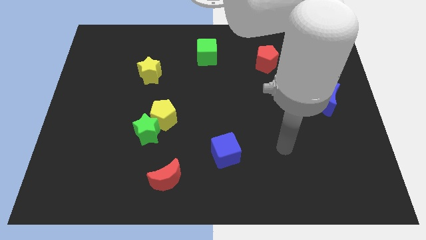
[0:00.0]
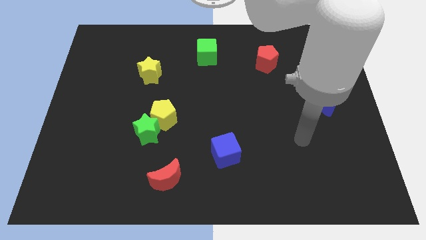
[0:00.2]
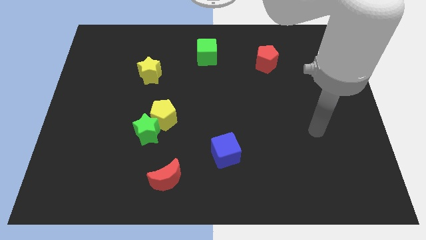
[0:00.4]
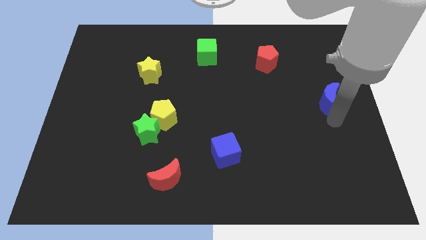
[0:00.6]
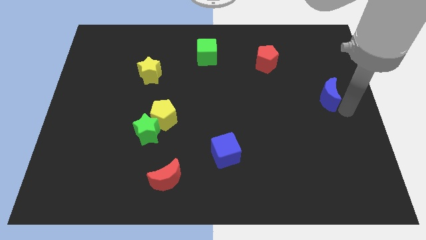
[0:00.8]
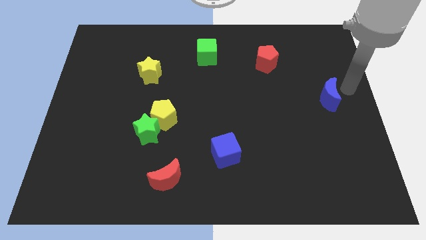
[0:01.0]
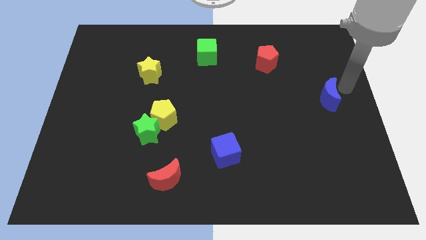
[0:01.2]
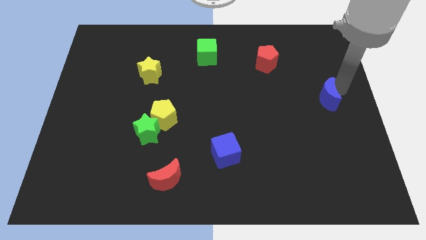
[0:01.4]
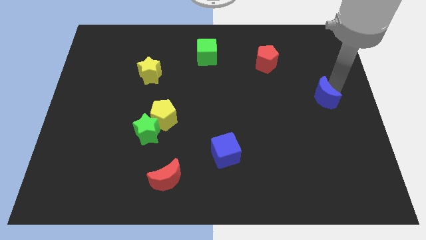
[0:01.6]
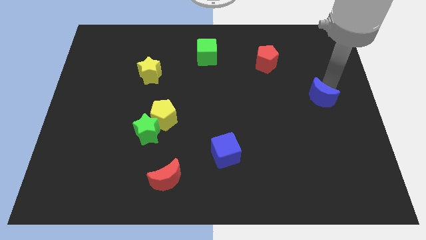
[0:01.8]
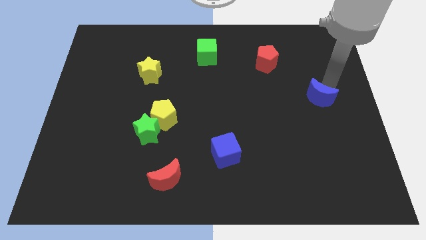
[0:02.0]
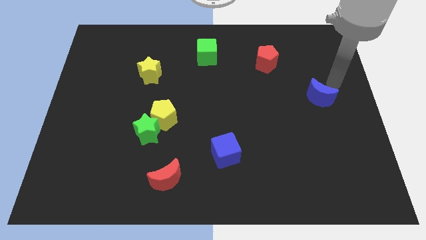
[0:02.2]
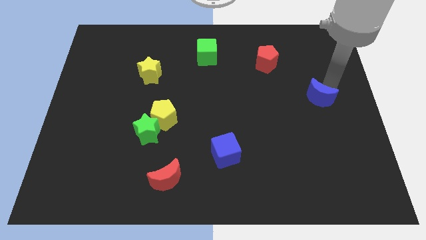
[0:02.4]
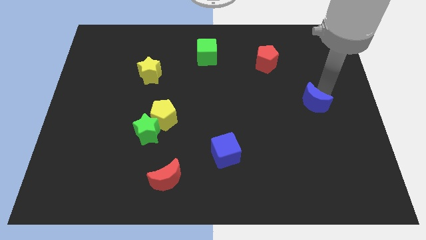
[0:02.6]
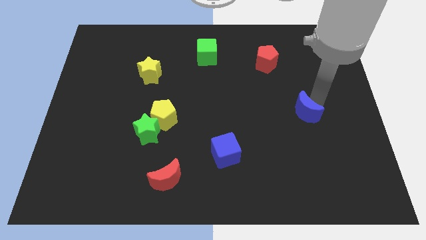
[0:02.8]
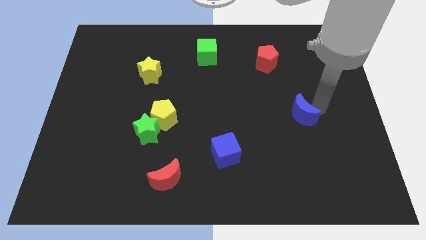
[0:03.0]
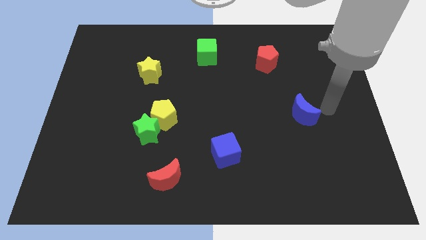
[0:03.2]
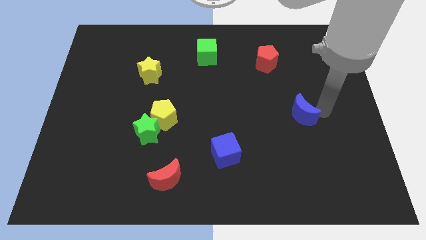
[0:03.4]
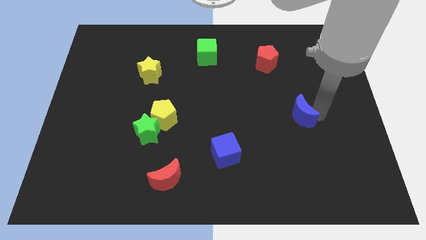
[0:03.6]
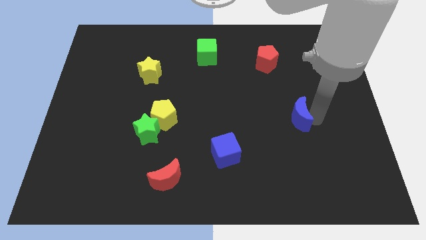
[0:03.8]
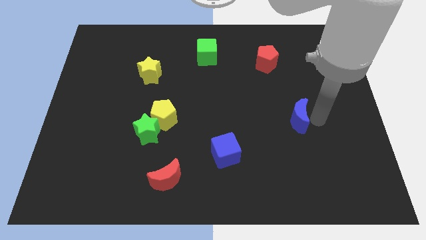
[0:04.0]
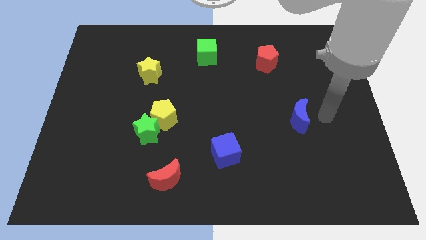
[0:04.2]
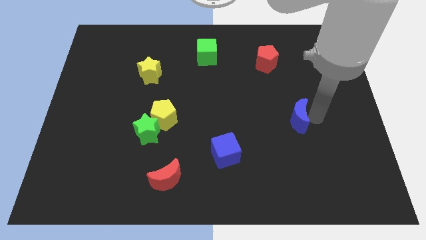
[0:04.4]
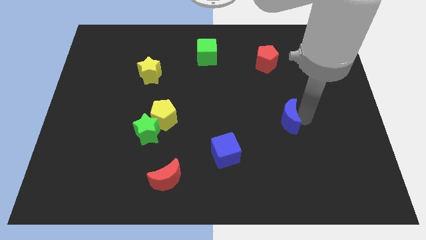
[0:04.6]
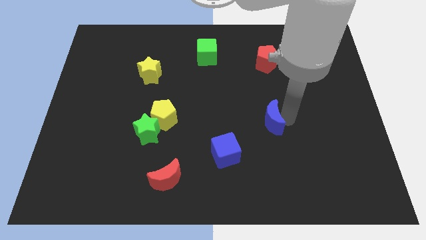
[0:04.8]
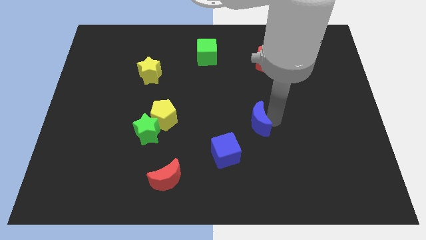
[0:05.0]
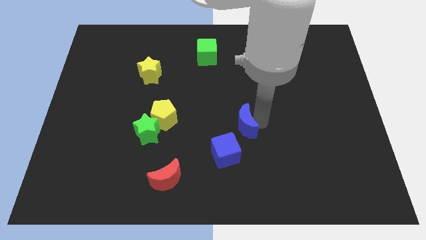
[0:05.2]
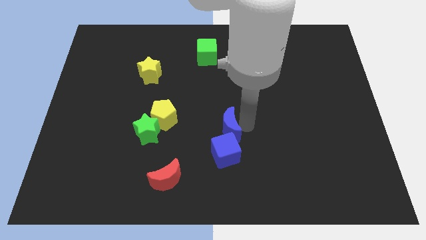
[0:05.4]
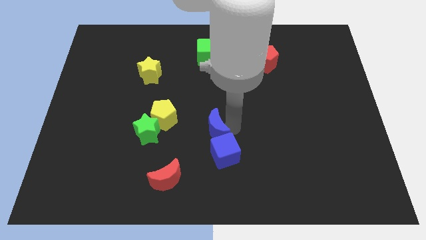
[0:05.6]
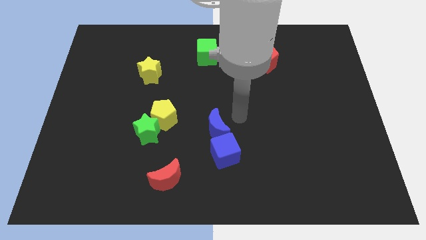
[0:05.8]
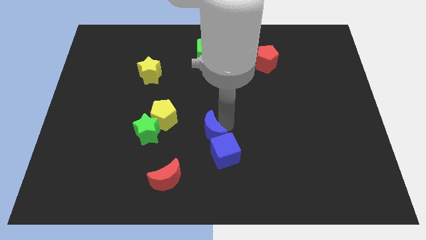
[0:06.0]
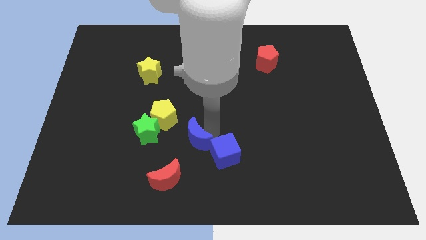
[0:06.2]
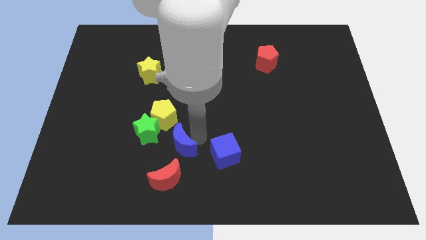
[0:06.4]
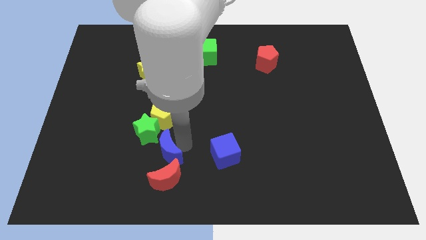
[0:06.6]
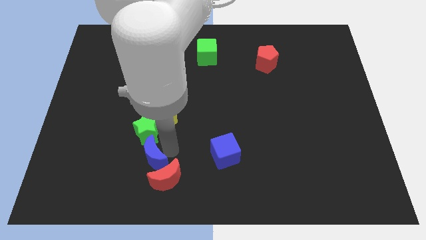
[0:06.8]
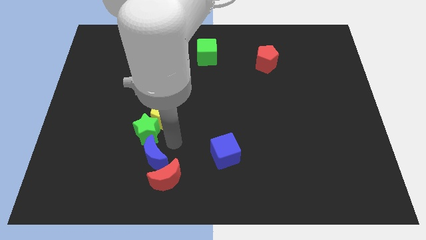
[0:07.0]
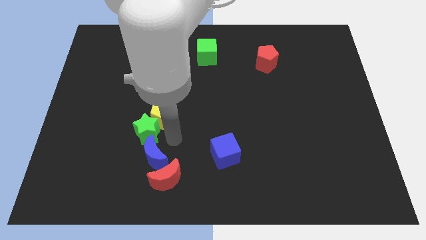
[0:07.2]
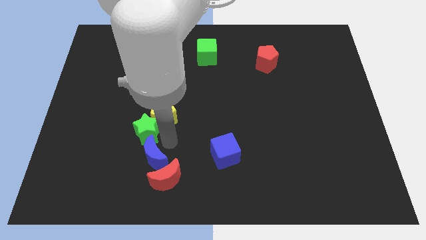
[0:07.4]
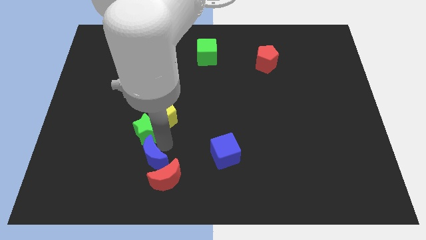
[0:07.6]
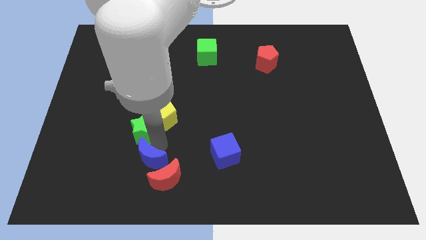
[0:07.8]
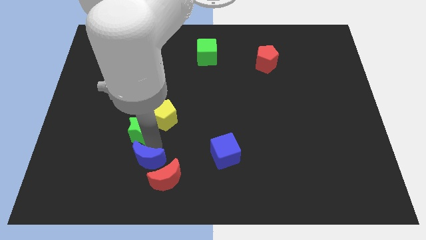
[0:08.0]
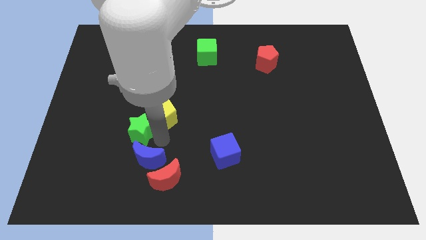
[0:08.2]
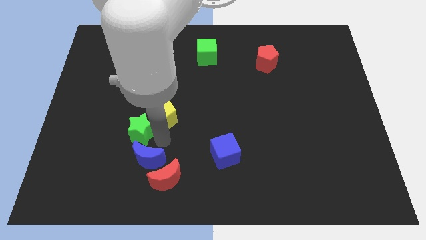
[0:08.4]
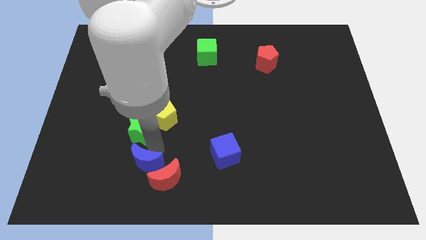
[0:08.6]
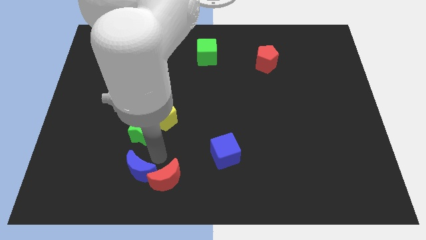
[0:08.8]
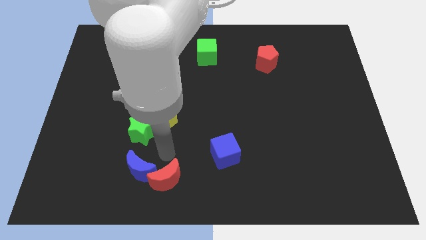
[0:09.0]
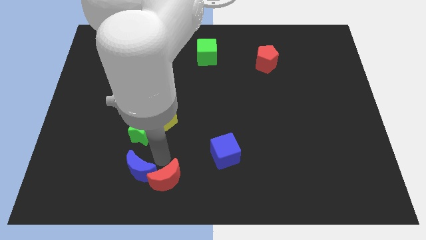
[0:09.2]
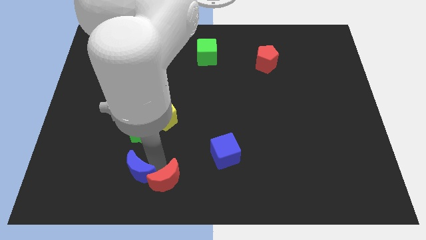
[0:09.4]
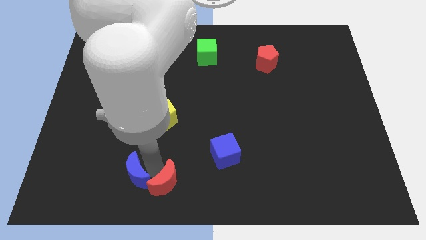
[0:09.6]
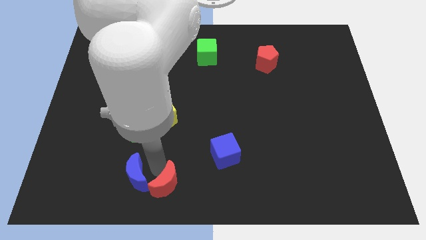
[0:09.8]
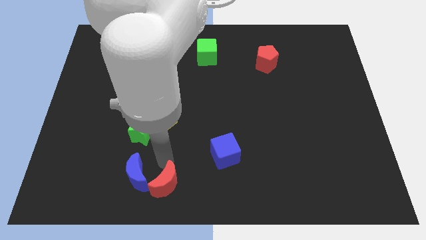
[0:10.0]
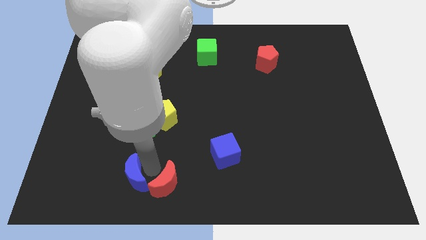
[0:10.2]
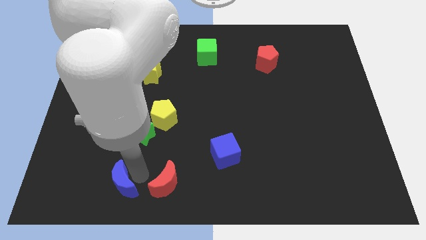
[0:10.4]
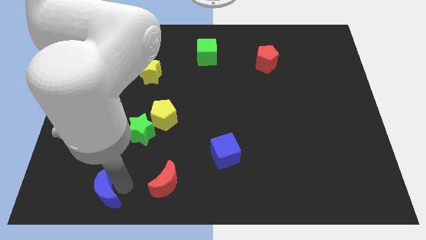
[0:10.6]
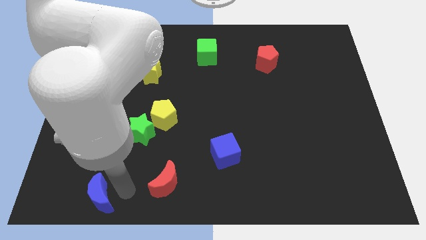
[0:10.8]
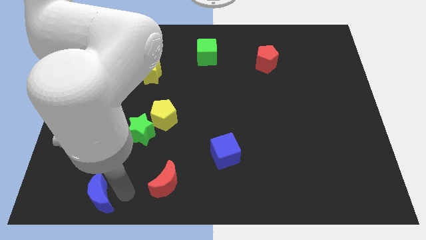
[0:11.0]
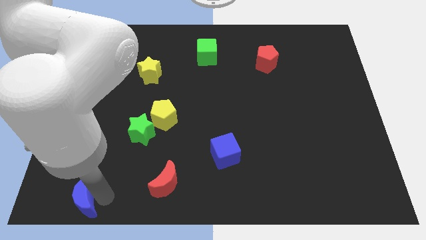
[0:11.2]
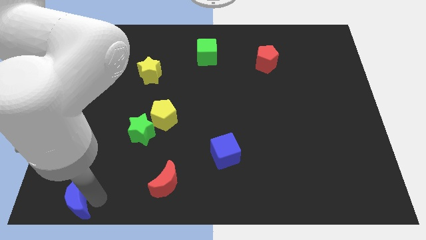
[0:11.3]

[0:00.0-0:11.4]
move the blue moon to the lower left corner
